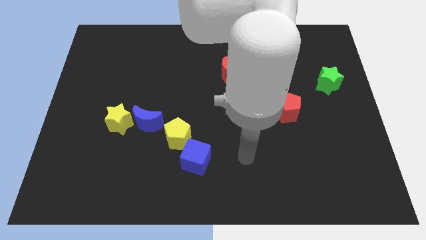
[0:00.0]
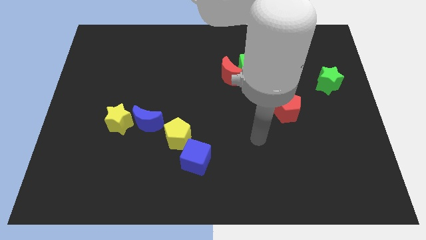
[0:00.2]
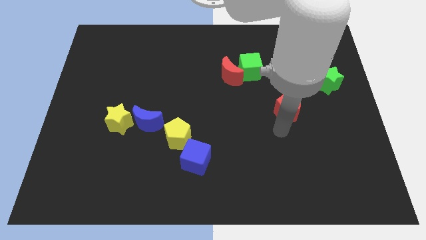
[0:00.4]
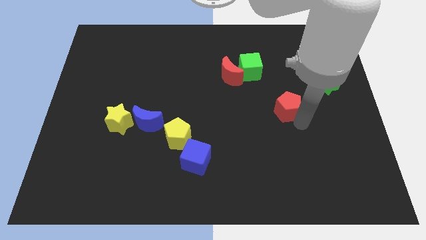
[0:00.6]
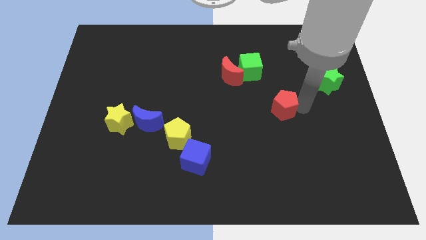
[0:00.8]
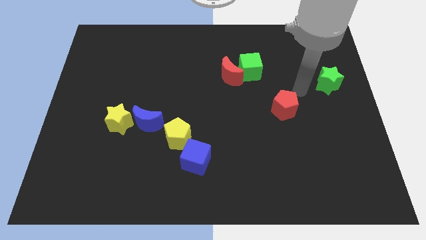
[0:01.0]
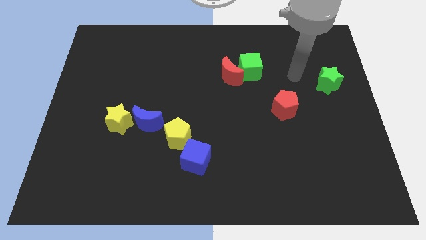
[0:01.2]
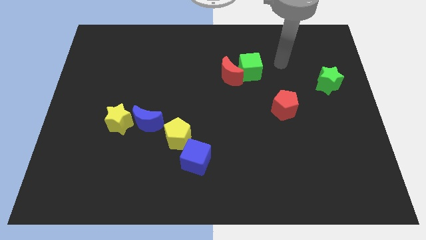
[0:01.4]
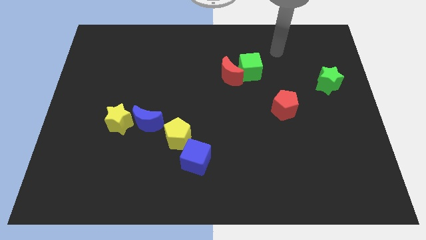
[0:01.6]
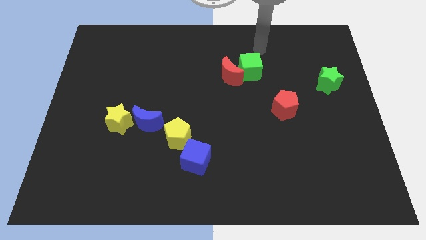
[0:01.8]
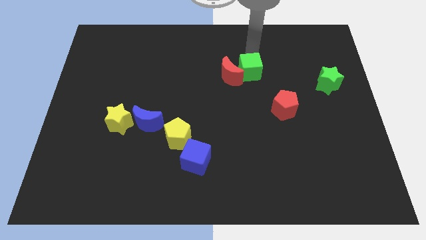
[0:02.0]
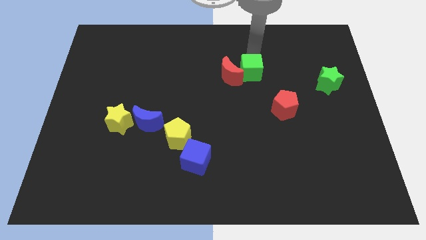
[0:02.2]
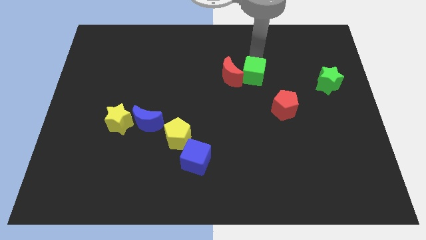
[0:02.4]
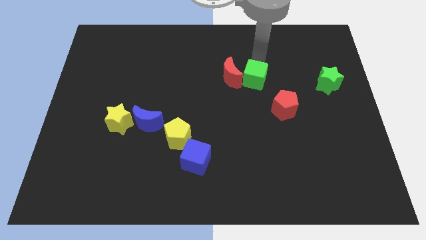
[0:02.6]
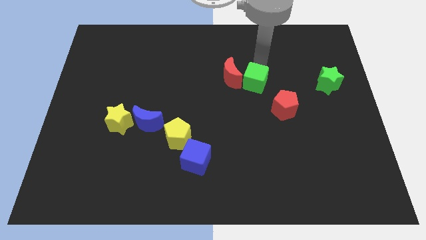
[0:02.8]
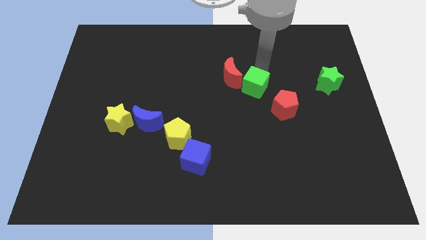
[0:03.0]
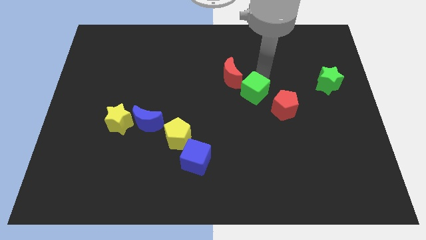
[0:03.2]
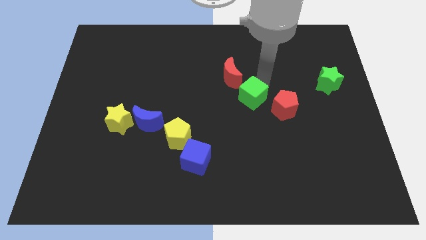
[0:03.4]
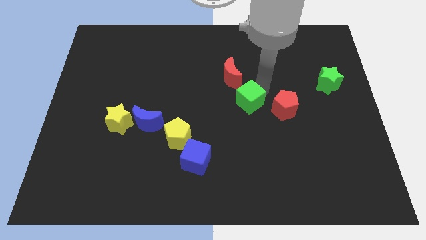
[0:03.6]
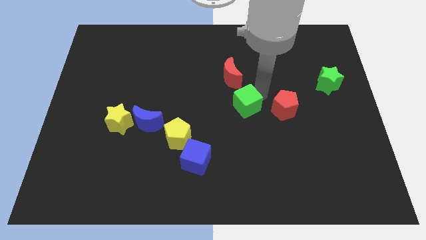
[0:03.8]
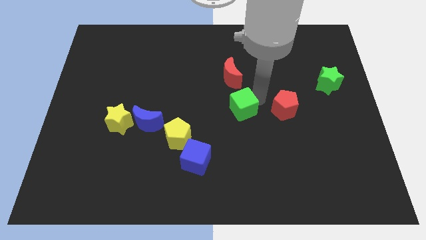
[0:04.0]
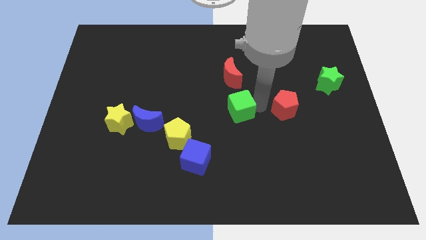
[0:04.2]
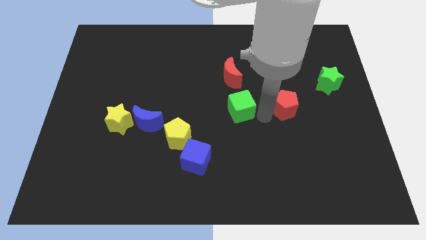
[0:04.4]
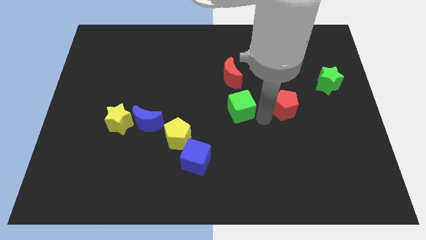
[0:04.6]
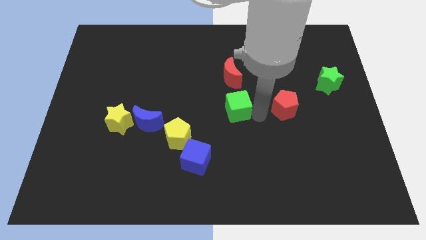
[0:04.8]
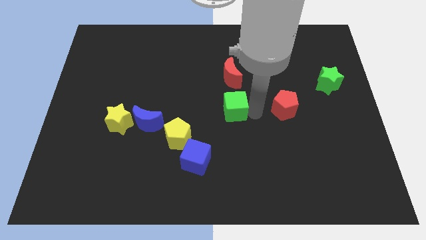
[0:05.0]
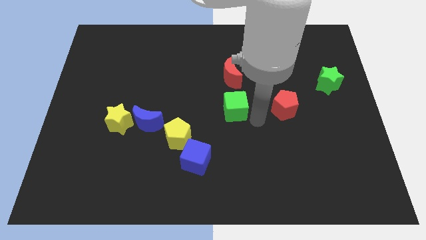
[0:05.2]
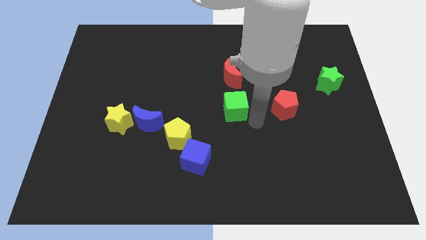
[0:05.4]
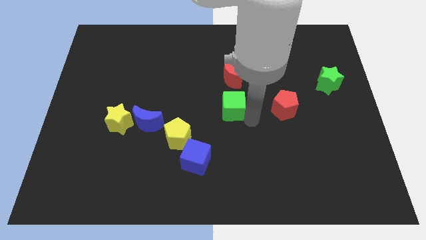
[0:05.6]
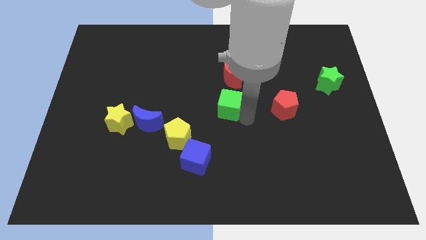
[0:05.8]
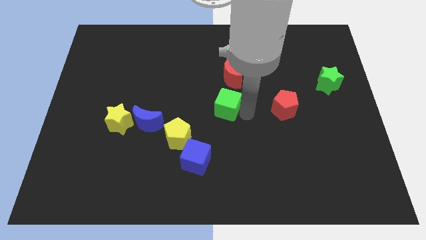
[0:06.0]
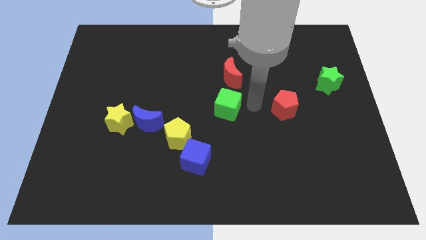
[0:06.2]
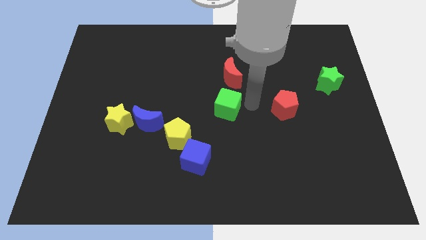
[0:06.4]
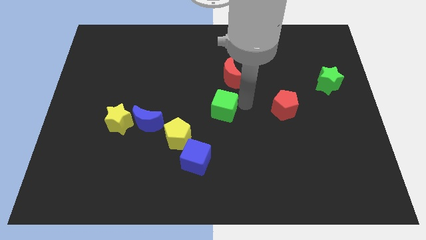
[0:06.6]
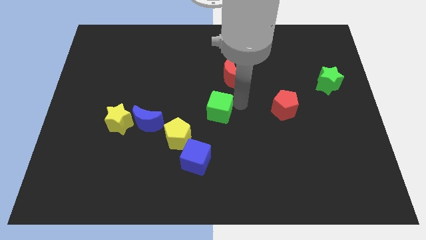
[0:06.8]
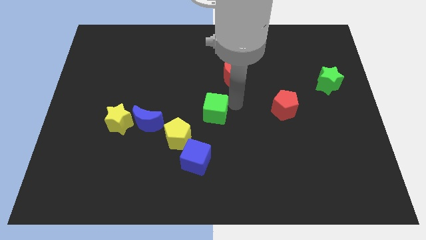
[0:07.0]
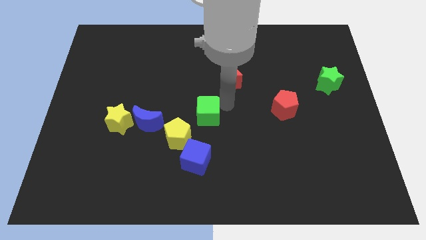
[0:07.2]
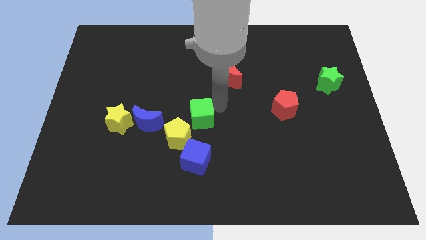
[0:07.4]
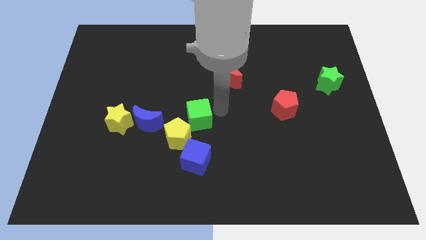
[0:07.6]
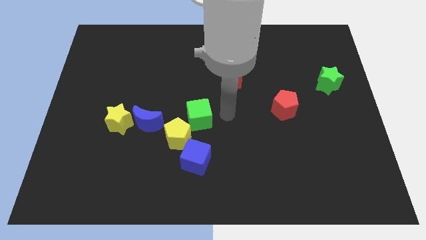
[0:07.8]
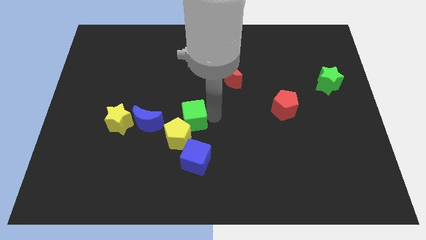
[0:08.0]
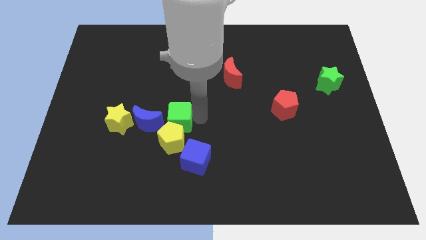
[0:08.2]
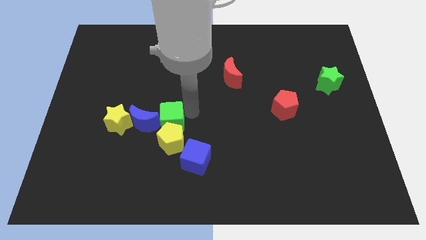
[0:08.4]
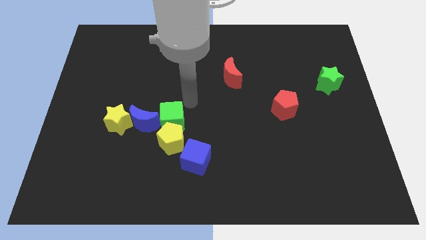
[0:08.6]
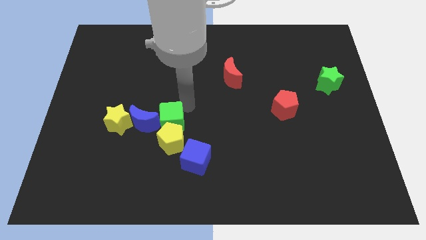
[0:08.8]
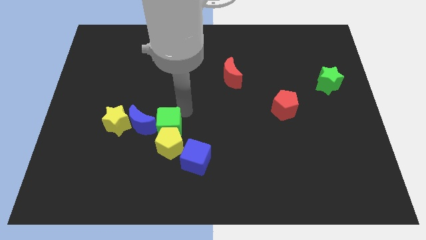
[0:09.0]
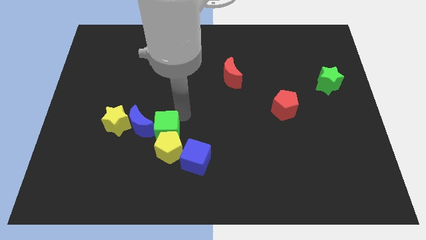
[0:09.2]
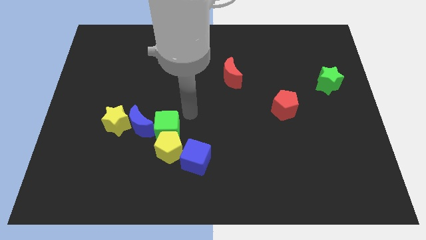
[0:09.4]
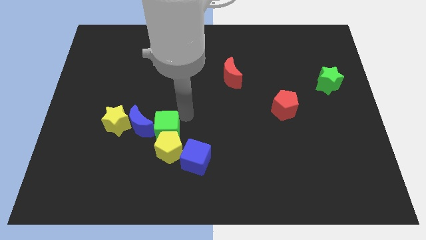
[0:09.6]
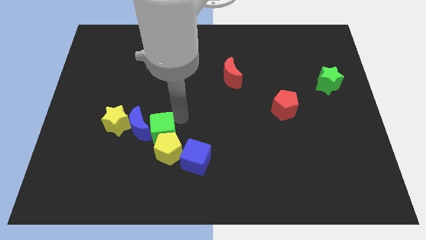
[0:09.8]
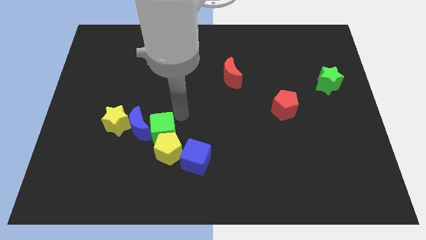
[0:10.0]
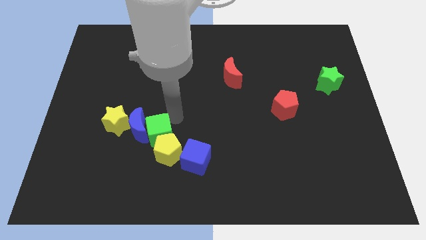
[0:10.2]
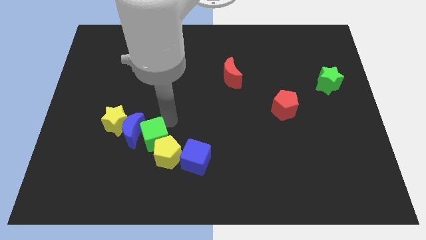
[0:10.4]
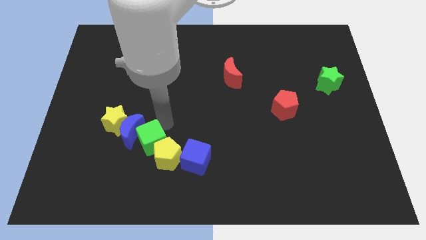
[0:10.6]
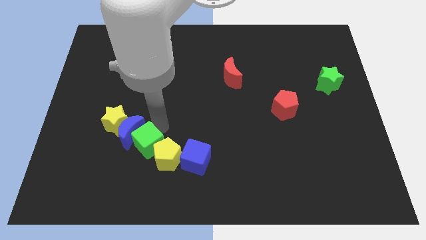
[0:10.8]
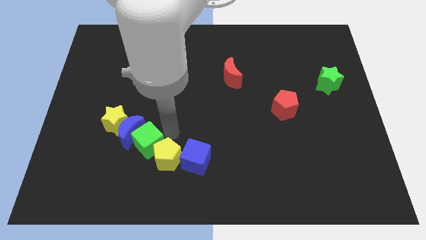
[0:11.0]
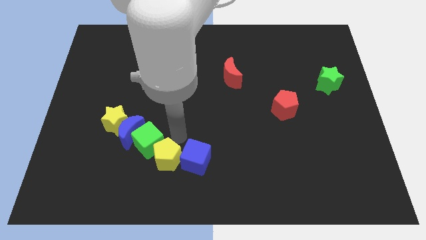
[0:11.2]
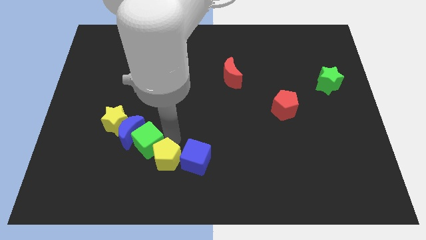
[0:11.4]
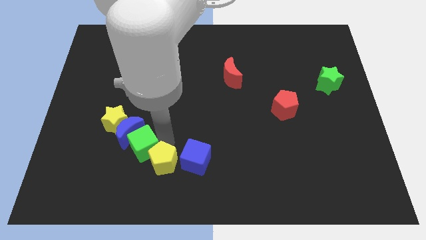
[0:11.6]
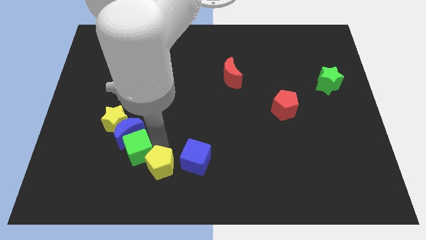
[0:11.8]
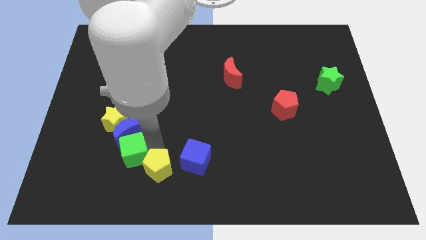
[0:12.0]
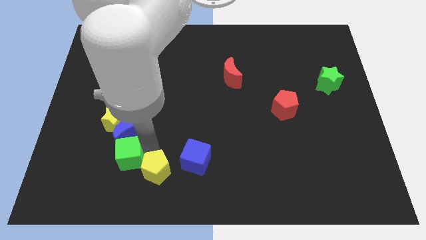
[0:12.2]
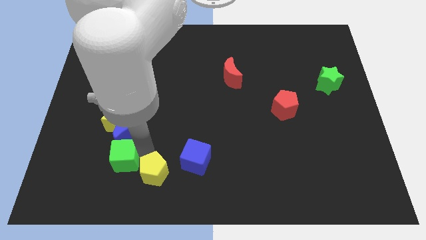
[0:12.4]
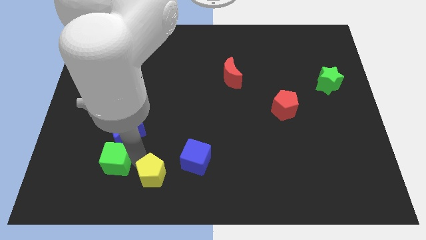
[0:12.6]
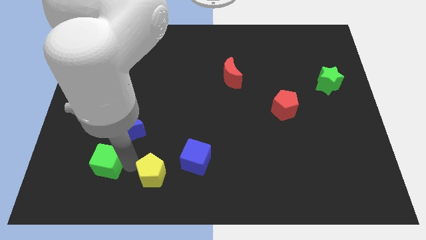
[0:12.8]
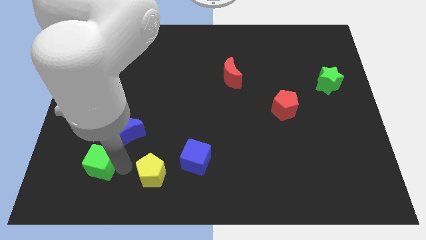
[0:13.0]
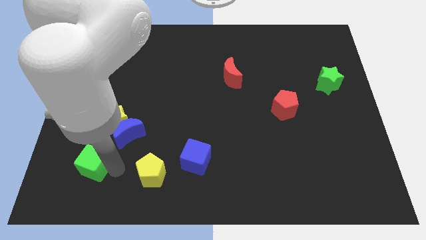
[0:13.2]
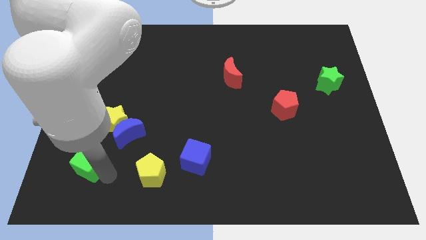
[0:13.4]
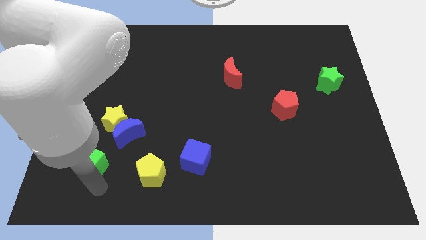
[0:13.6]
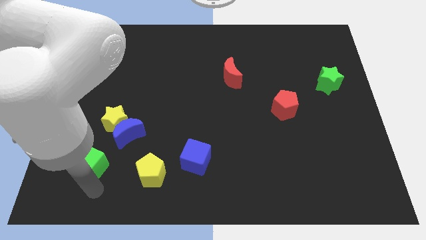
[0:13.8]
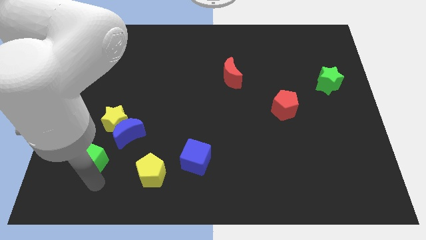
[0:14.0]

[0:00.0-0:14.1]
put the green cube diagonally down and to the left of the yellow star
